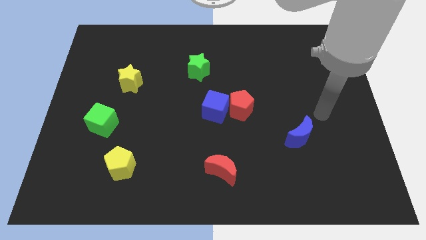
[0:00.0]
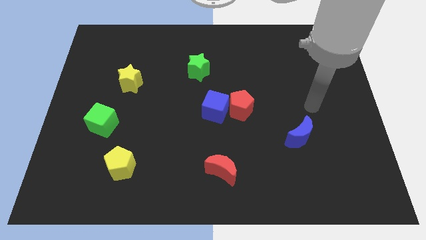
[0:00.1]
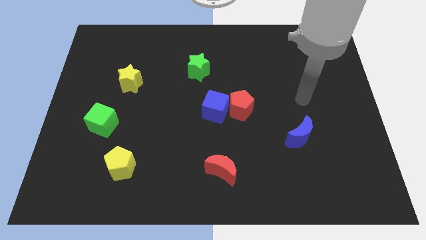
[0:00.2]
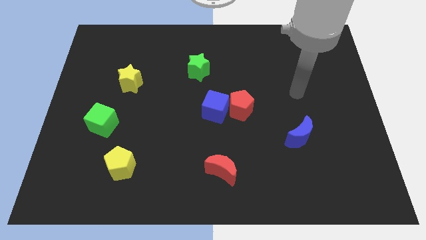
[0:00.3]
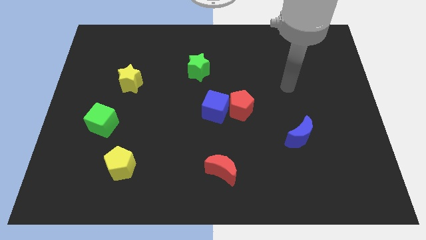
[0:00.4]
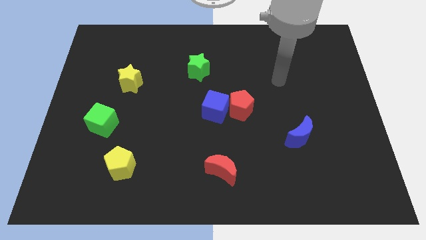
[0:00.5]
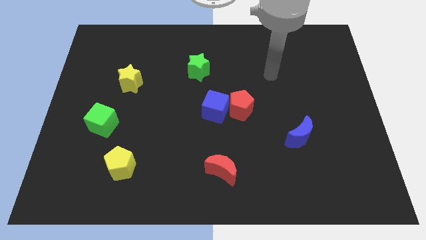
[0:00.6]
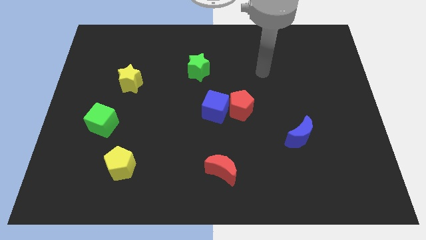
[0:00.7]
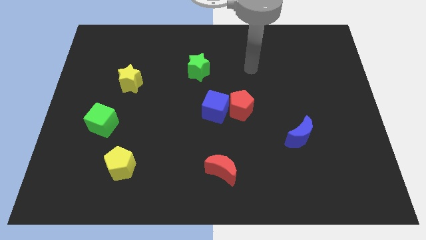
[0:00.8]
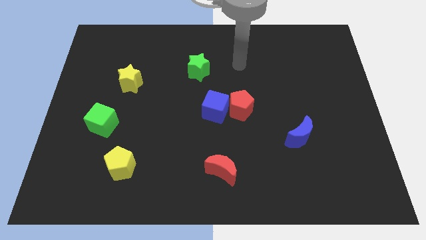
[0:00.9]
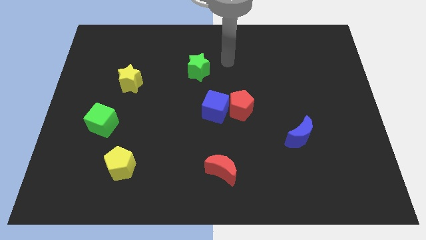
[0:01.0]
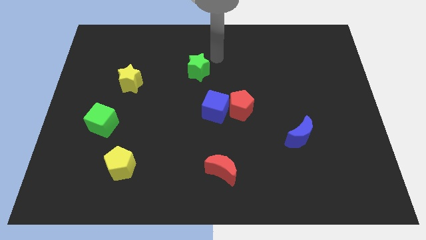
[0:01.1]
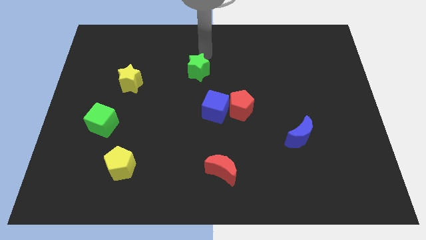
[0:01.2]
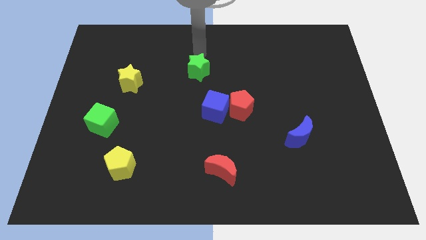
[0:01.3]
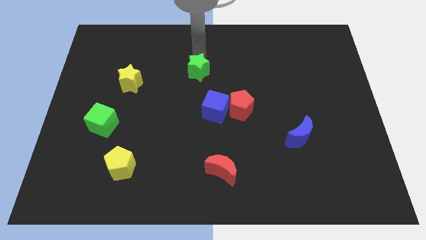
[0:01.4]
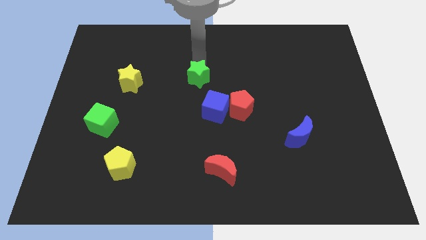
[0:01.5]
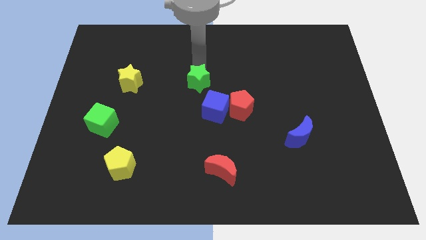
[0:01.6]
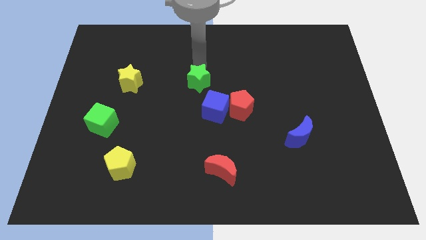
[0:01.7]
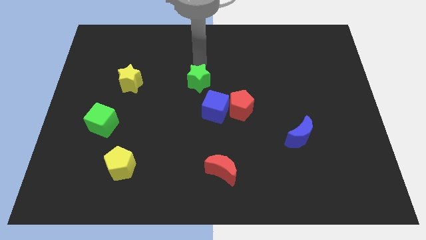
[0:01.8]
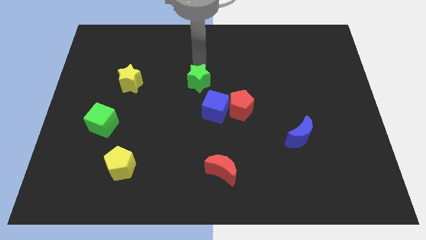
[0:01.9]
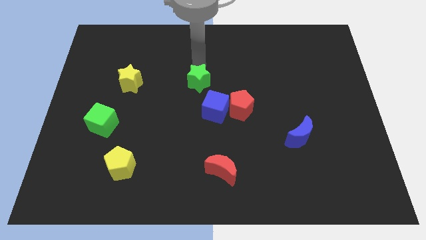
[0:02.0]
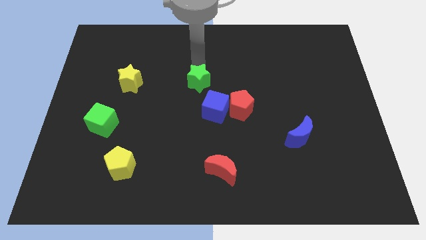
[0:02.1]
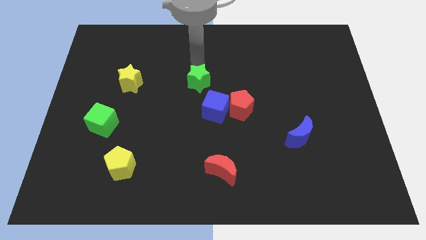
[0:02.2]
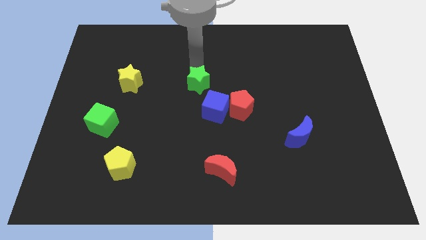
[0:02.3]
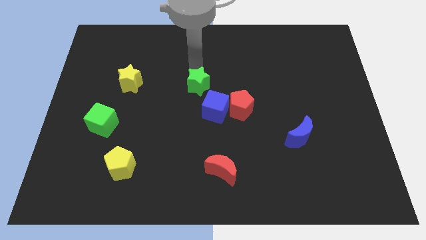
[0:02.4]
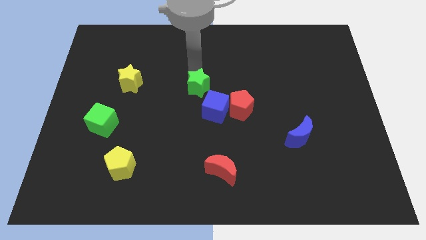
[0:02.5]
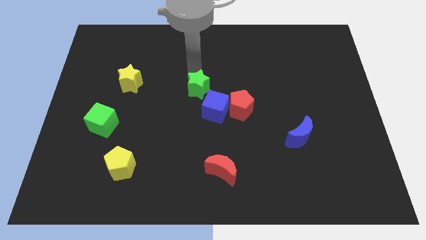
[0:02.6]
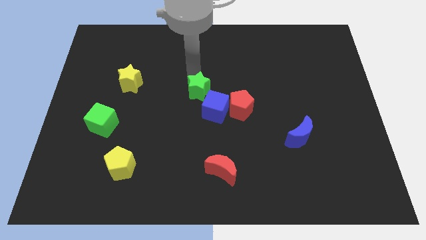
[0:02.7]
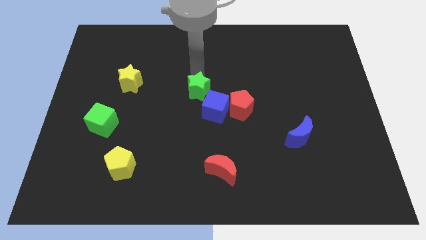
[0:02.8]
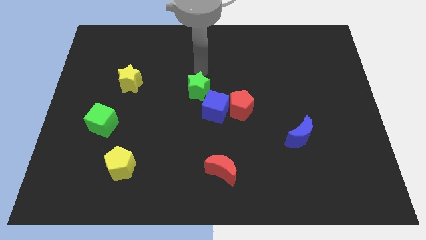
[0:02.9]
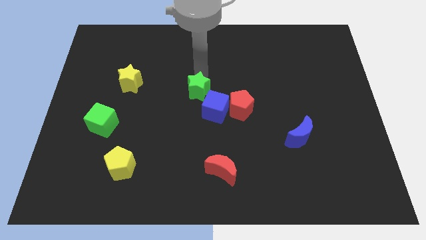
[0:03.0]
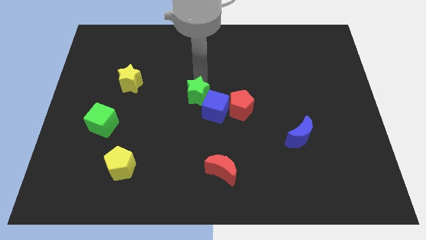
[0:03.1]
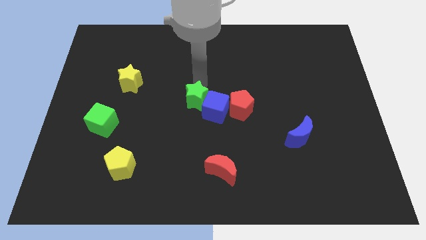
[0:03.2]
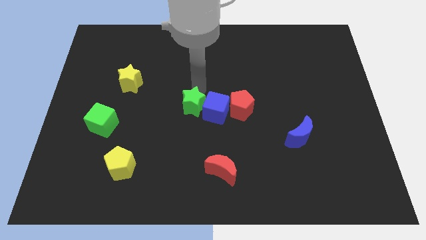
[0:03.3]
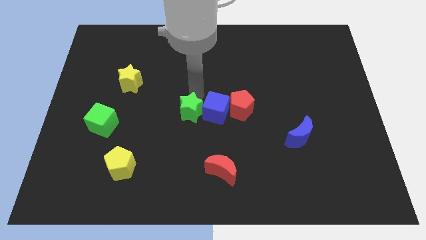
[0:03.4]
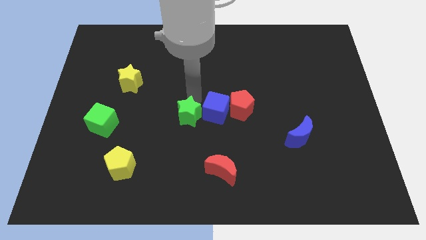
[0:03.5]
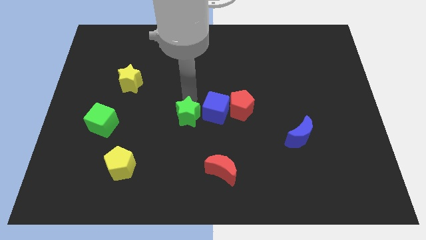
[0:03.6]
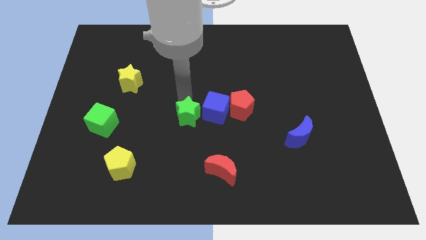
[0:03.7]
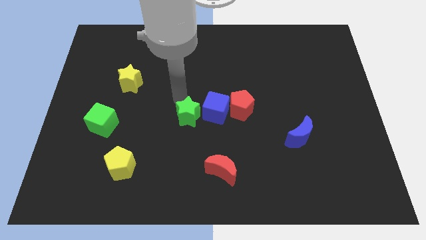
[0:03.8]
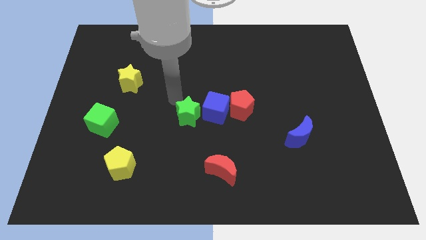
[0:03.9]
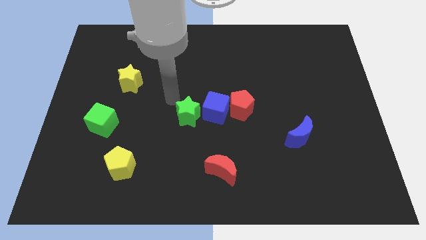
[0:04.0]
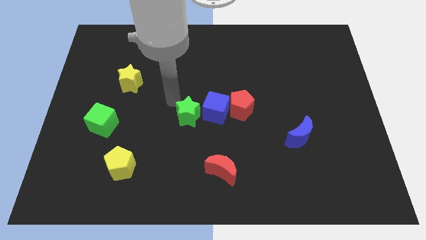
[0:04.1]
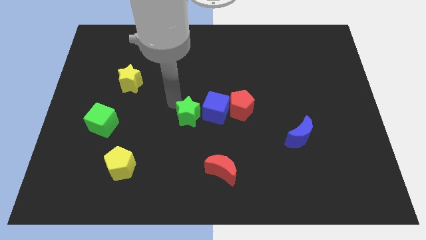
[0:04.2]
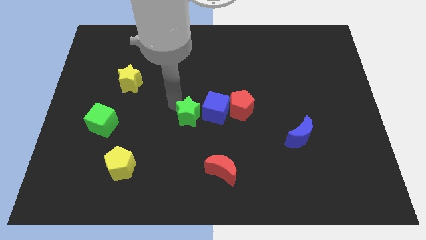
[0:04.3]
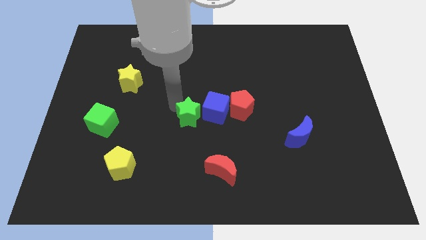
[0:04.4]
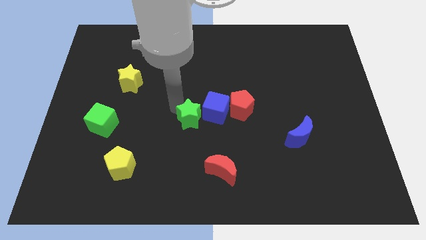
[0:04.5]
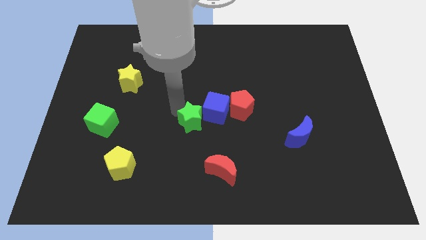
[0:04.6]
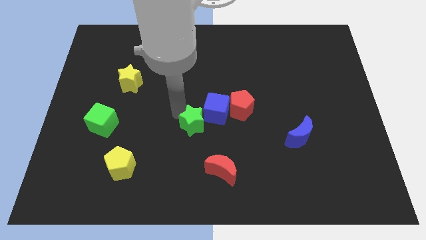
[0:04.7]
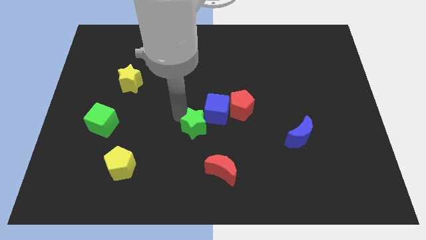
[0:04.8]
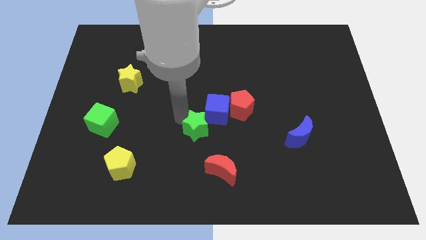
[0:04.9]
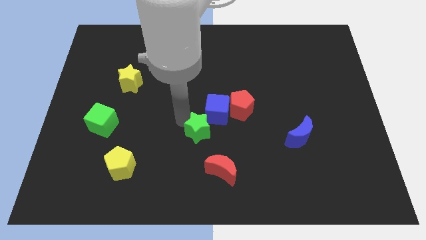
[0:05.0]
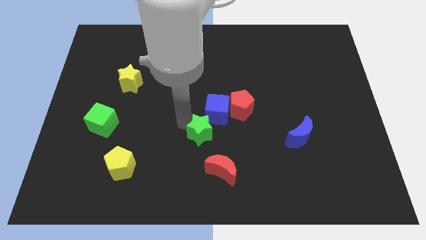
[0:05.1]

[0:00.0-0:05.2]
slide the green star to the top of the red moon

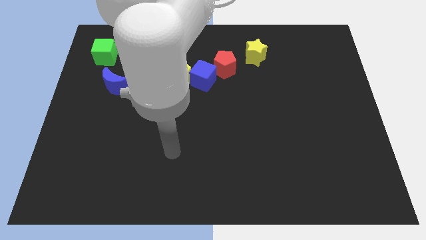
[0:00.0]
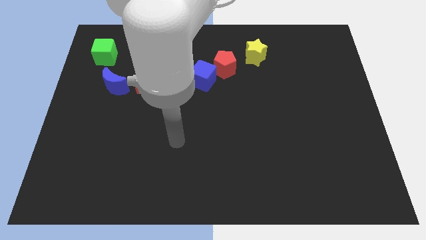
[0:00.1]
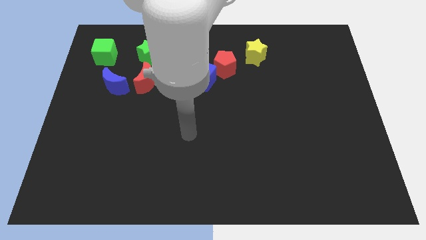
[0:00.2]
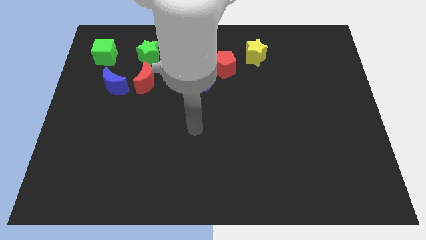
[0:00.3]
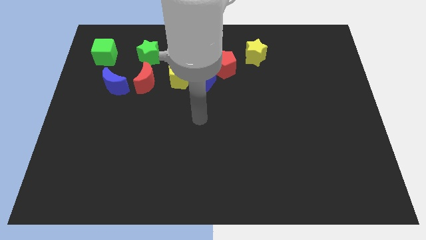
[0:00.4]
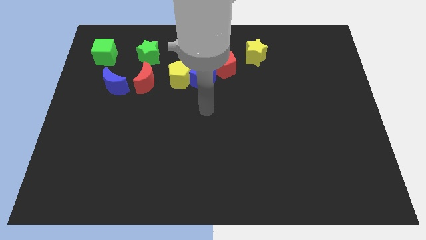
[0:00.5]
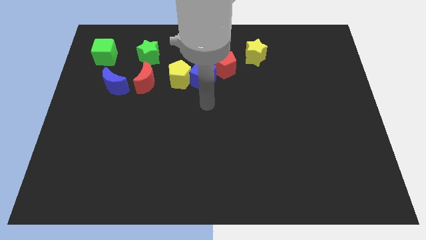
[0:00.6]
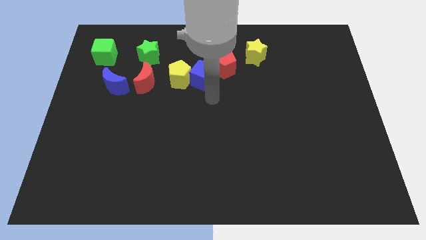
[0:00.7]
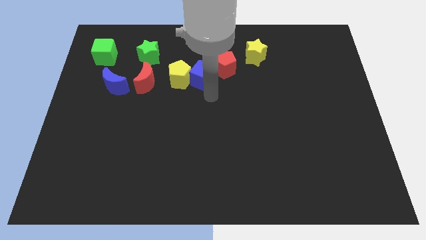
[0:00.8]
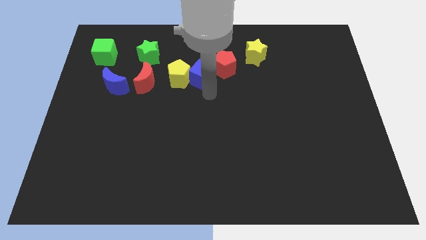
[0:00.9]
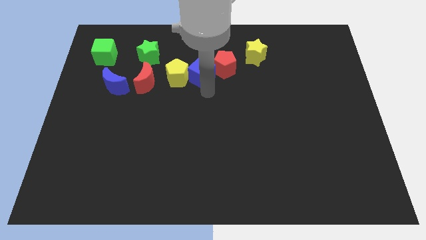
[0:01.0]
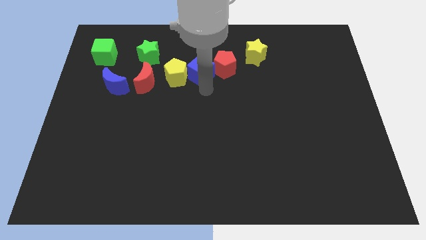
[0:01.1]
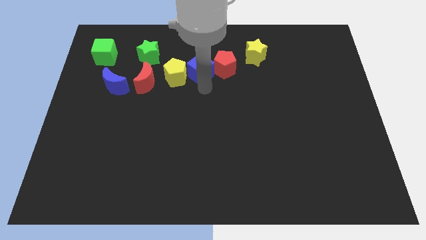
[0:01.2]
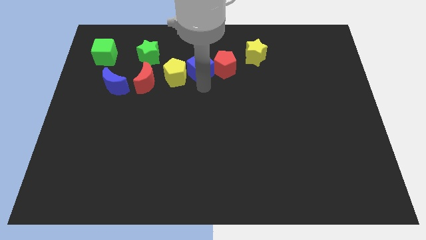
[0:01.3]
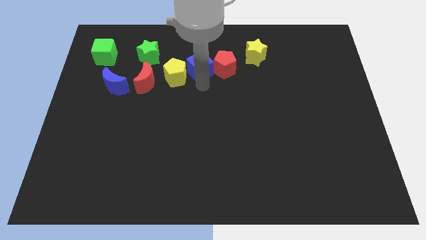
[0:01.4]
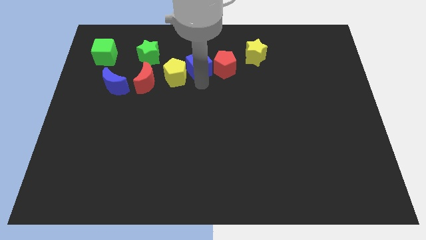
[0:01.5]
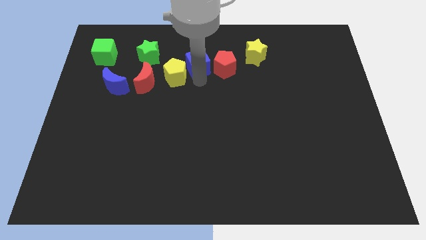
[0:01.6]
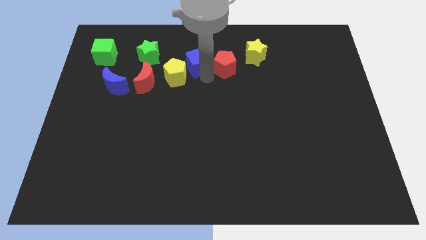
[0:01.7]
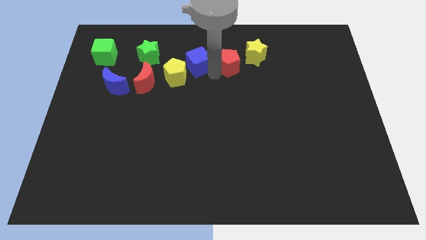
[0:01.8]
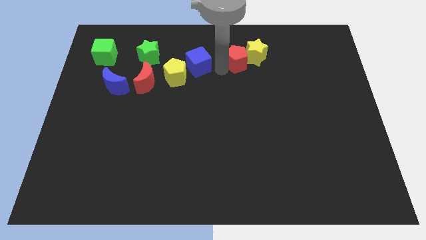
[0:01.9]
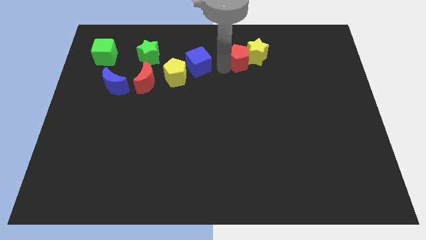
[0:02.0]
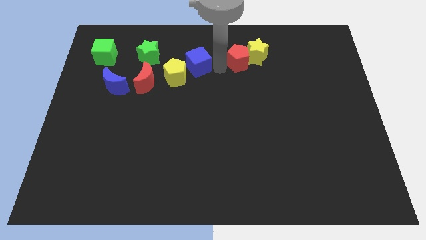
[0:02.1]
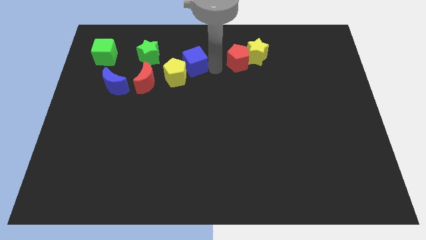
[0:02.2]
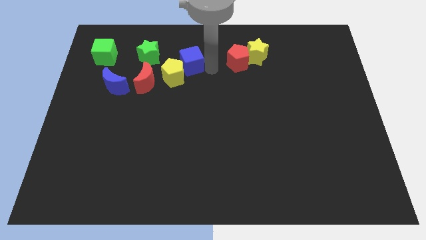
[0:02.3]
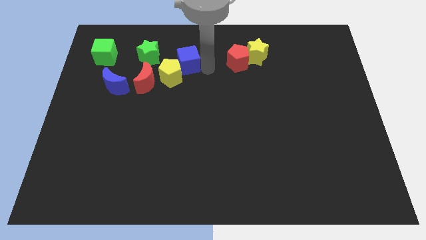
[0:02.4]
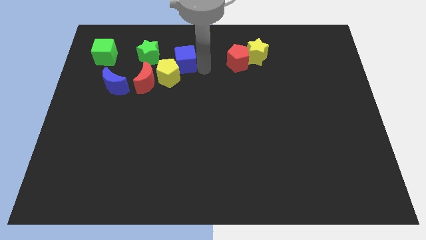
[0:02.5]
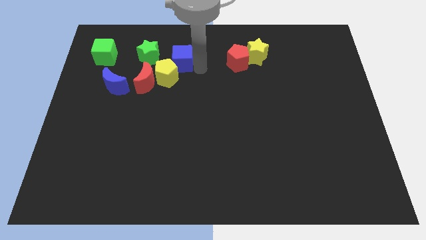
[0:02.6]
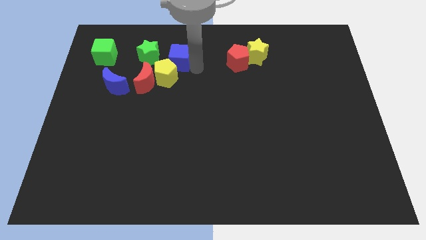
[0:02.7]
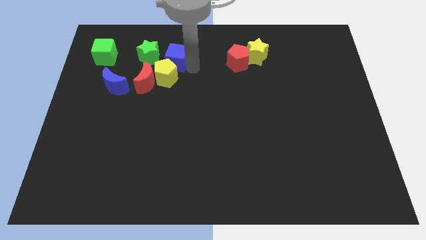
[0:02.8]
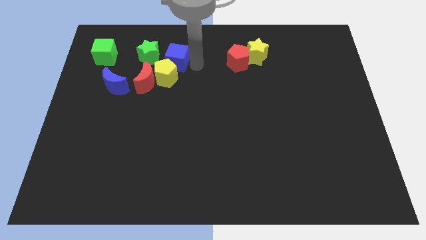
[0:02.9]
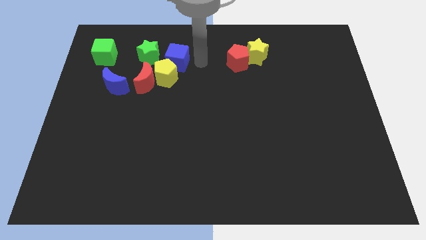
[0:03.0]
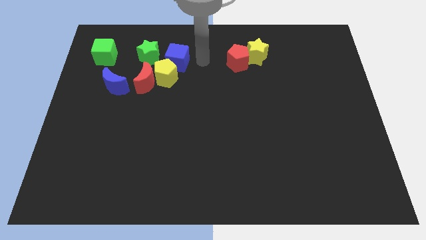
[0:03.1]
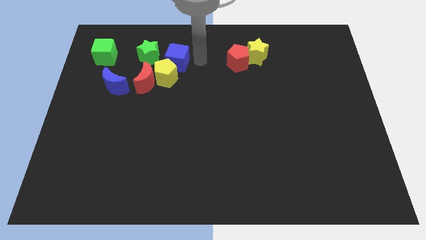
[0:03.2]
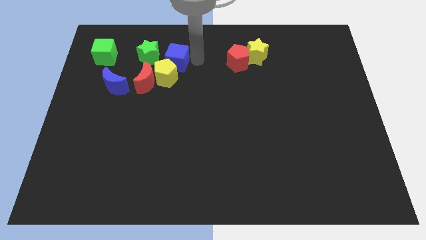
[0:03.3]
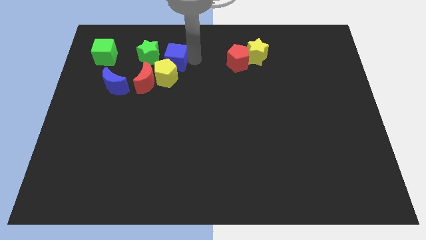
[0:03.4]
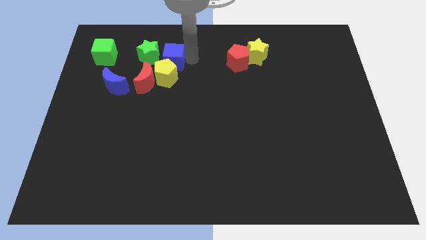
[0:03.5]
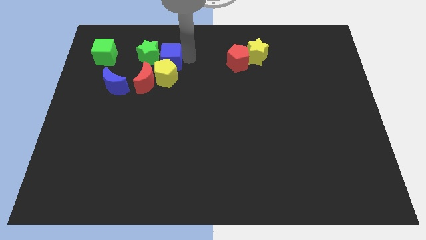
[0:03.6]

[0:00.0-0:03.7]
put the blue cube diagonally up and to the left of the yellow pentagon
